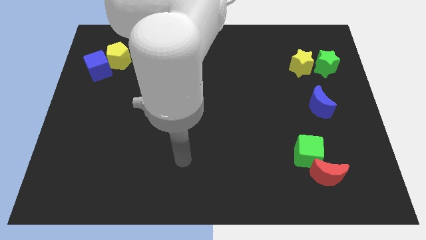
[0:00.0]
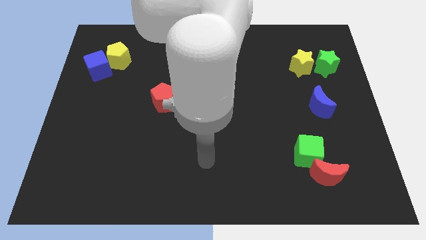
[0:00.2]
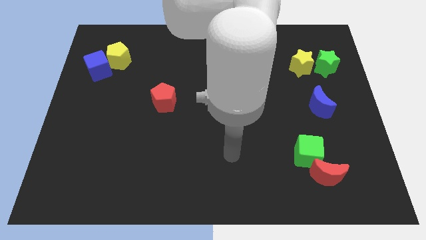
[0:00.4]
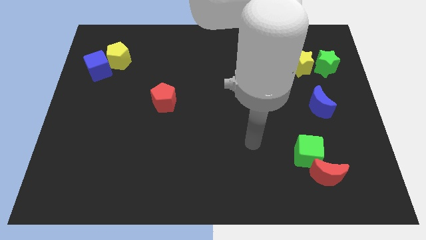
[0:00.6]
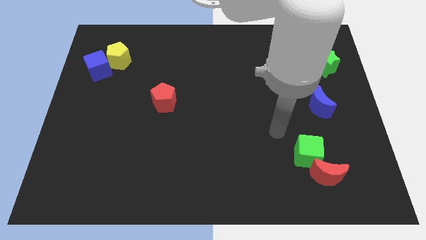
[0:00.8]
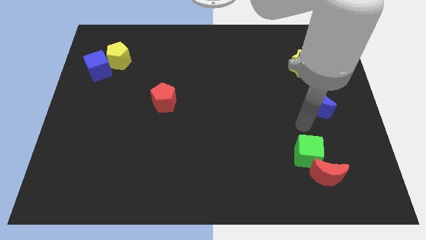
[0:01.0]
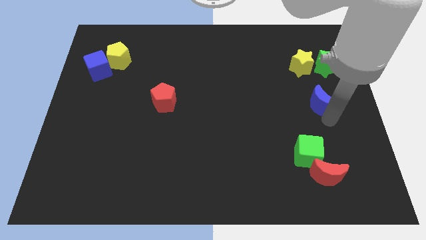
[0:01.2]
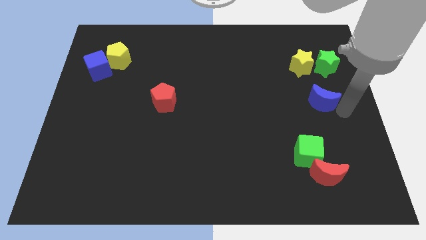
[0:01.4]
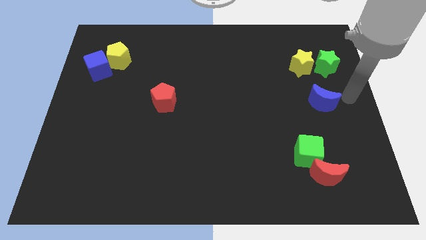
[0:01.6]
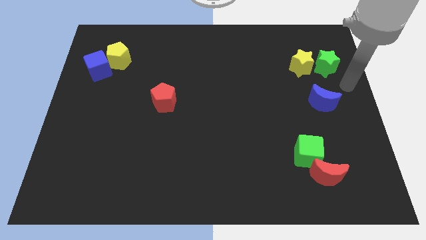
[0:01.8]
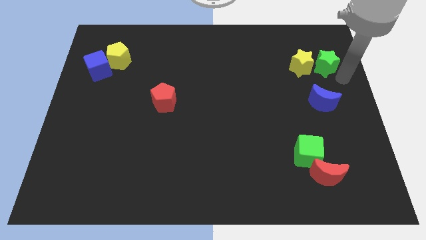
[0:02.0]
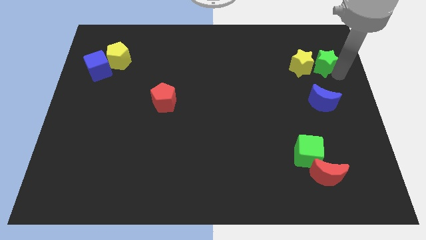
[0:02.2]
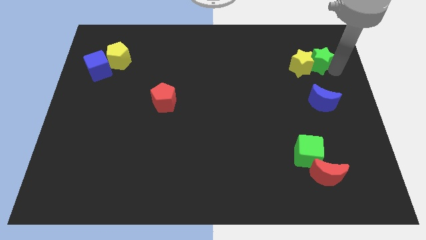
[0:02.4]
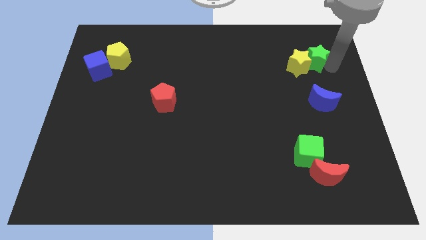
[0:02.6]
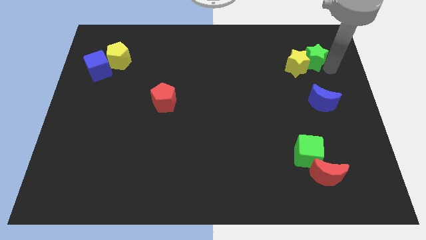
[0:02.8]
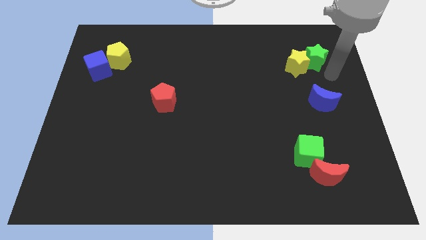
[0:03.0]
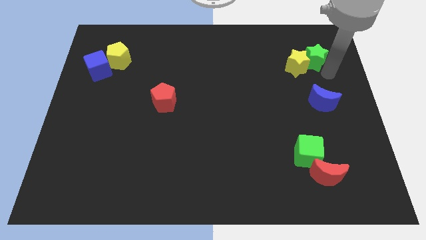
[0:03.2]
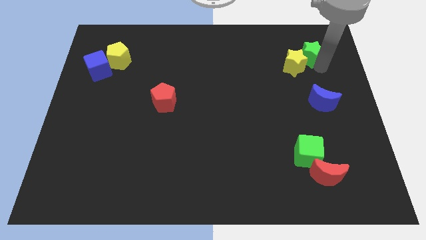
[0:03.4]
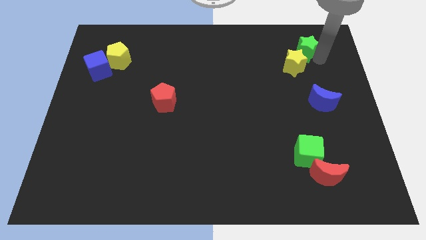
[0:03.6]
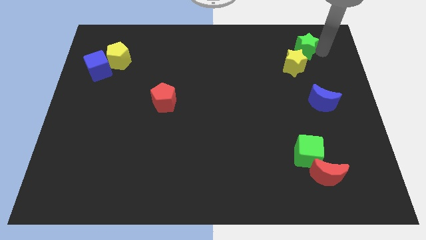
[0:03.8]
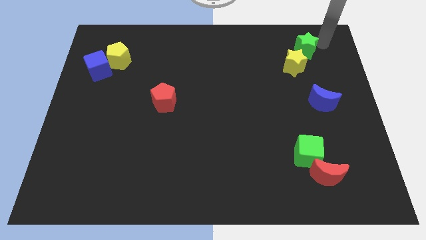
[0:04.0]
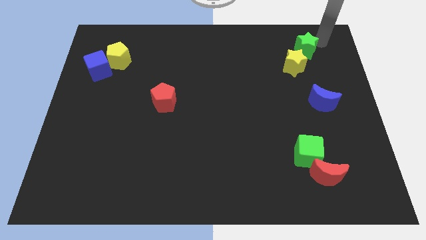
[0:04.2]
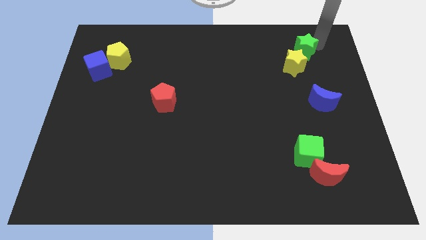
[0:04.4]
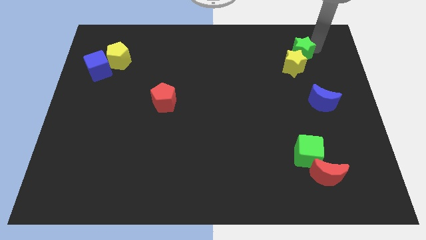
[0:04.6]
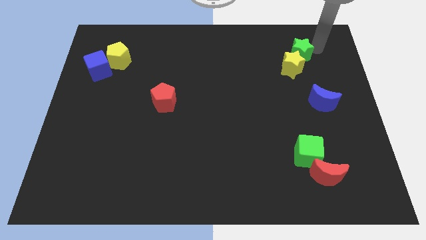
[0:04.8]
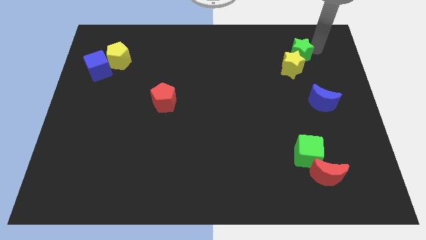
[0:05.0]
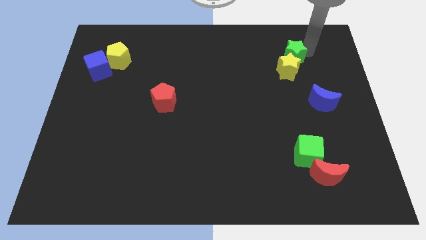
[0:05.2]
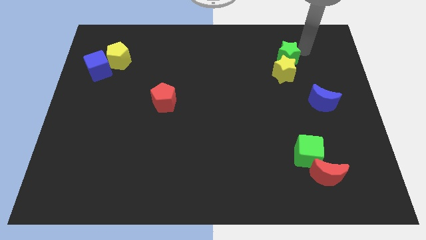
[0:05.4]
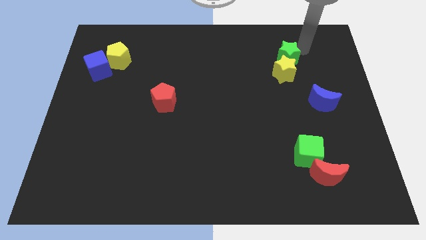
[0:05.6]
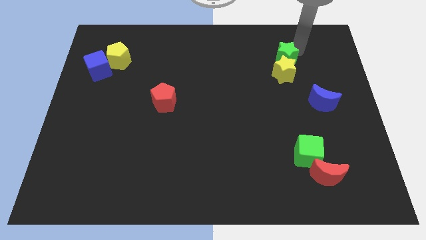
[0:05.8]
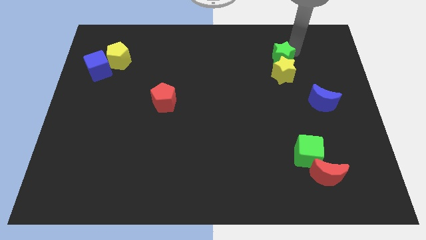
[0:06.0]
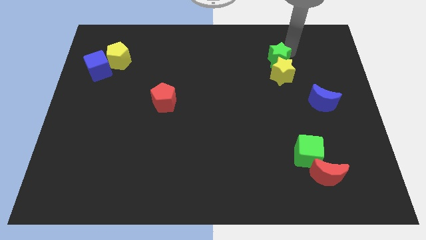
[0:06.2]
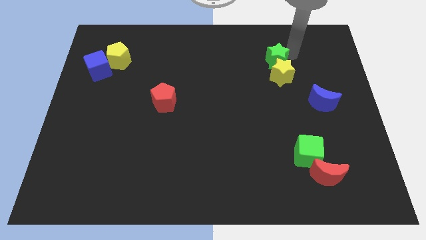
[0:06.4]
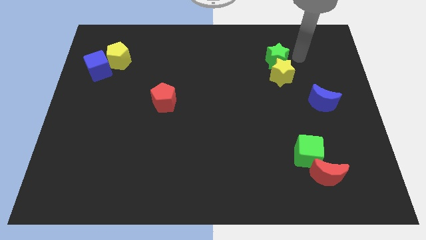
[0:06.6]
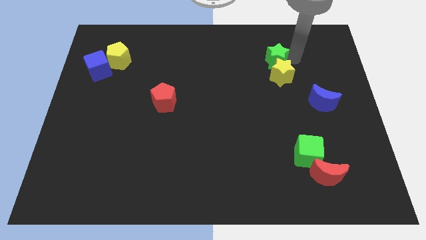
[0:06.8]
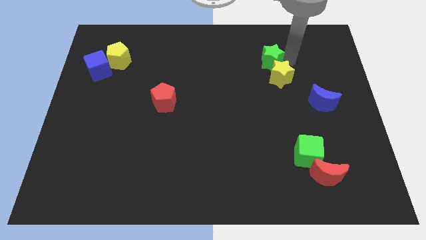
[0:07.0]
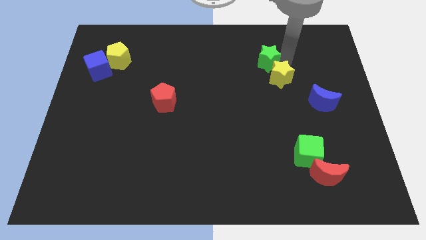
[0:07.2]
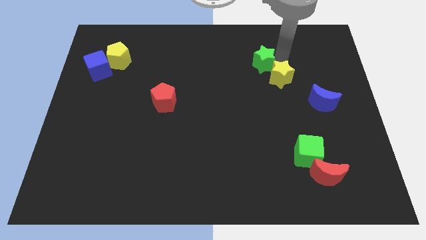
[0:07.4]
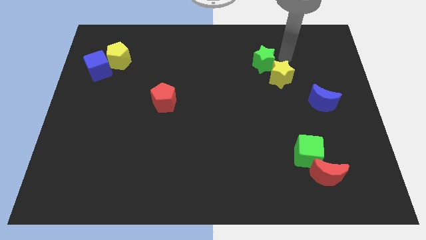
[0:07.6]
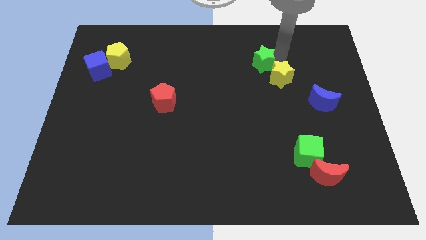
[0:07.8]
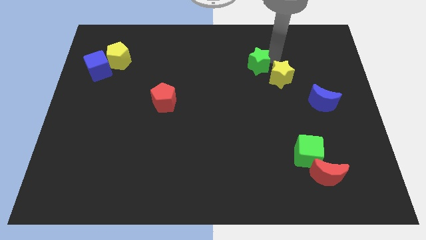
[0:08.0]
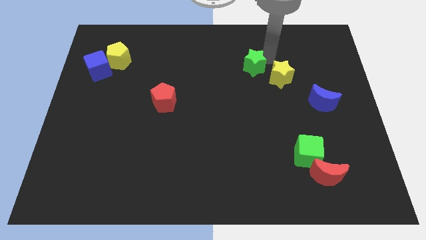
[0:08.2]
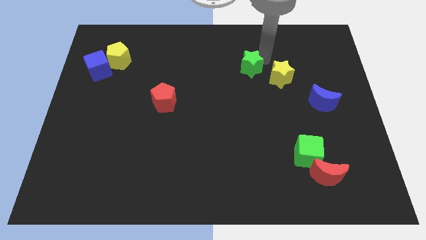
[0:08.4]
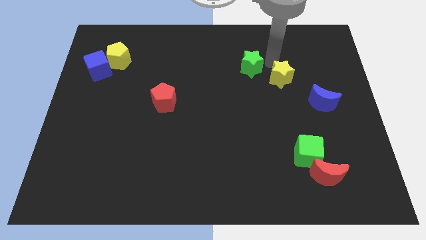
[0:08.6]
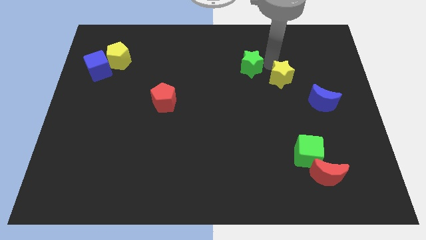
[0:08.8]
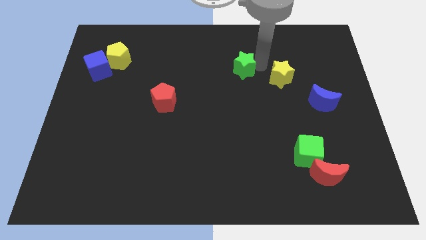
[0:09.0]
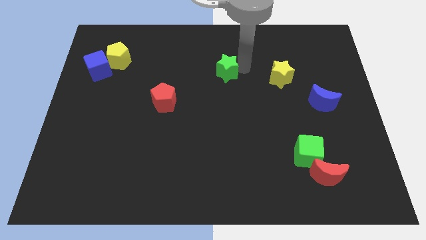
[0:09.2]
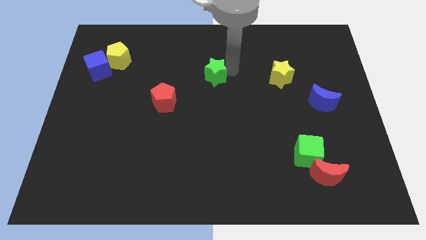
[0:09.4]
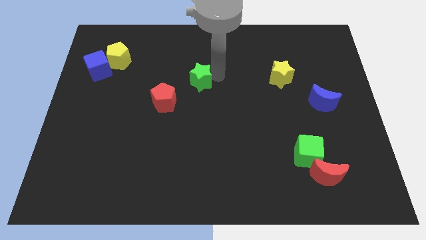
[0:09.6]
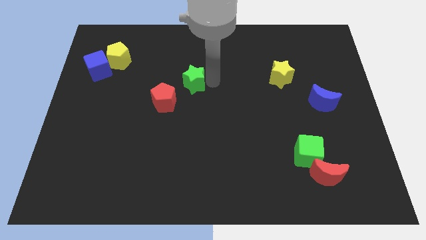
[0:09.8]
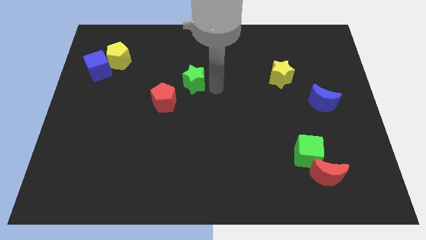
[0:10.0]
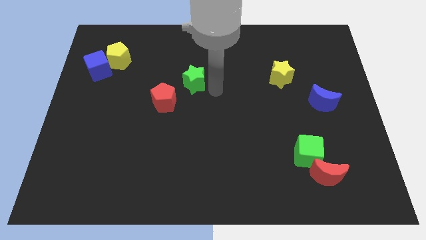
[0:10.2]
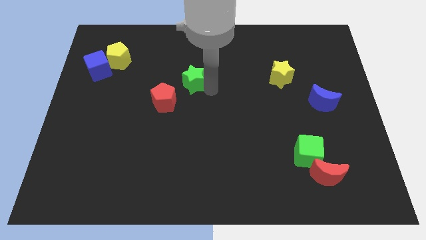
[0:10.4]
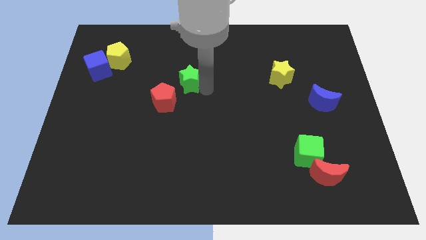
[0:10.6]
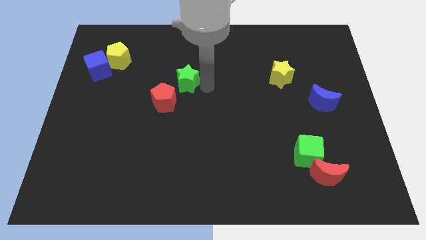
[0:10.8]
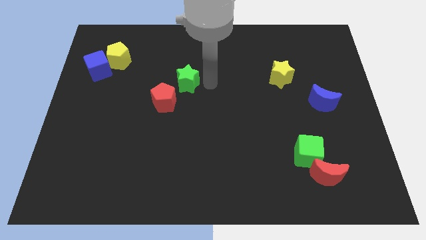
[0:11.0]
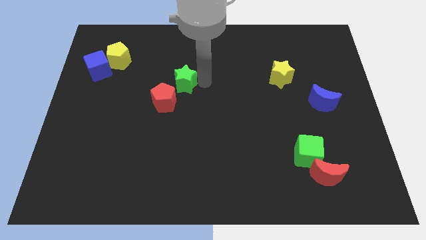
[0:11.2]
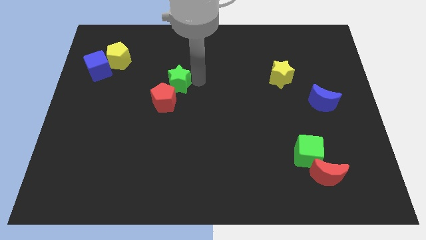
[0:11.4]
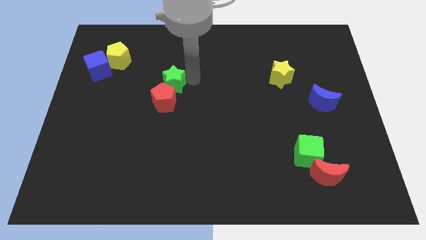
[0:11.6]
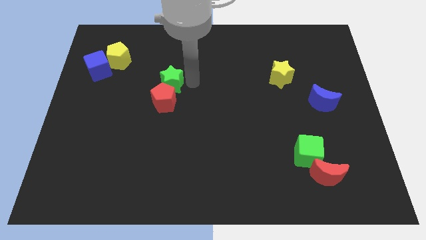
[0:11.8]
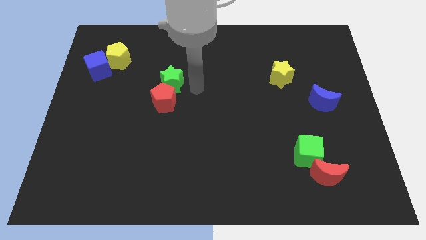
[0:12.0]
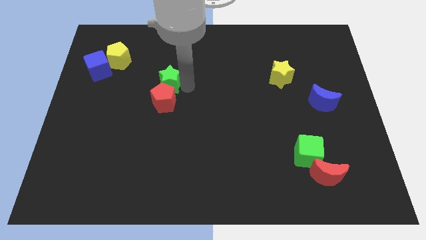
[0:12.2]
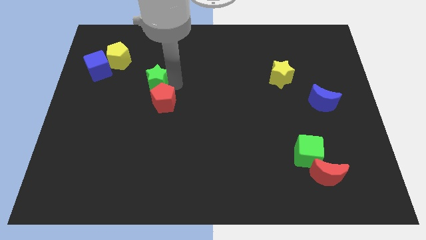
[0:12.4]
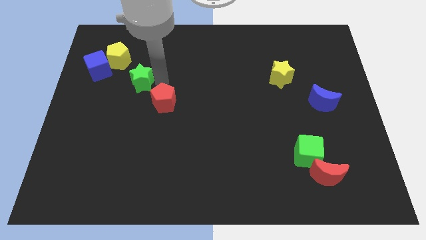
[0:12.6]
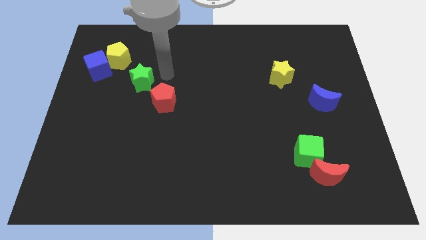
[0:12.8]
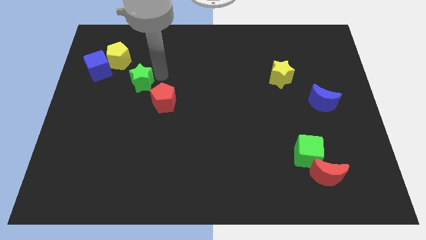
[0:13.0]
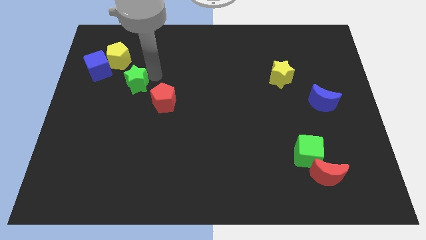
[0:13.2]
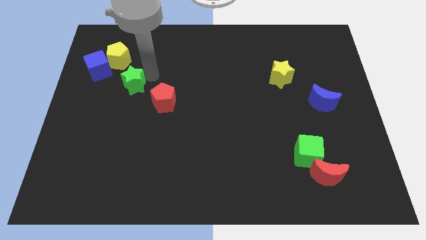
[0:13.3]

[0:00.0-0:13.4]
push the green star to the bottom of the yellow pentagon

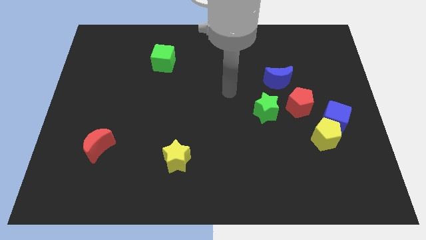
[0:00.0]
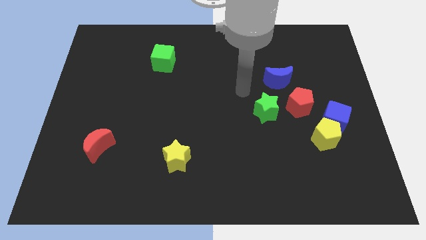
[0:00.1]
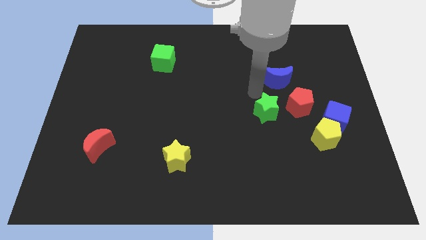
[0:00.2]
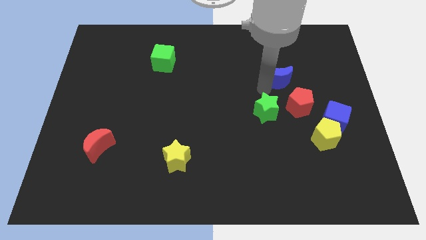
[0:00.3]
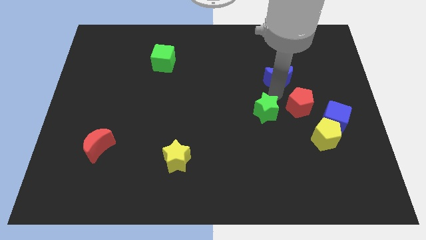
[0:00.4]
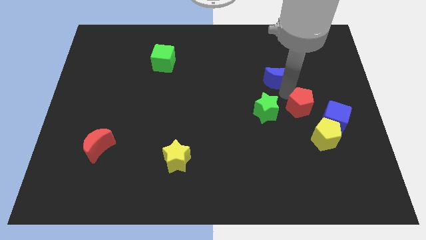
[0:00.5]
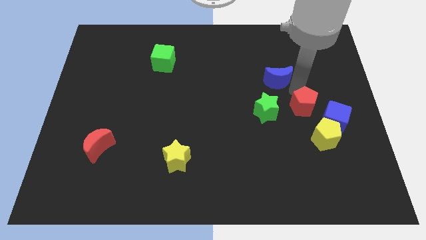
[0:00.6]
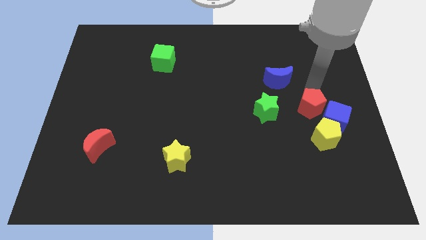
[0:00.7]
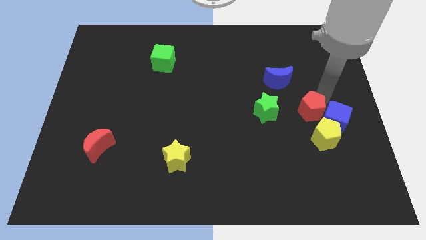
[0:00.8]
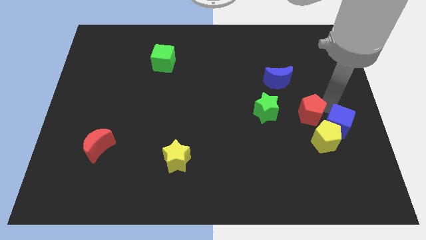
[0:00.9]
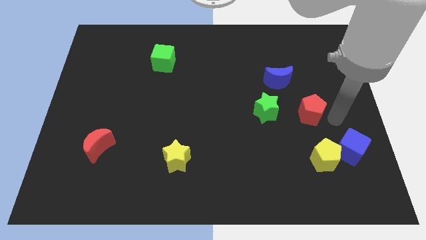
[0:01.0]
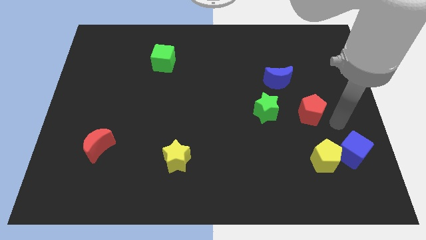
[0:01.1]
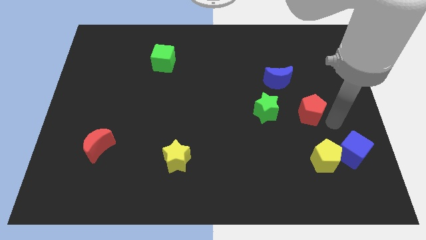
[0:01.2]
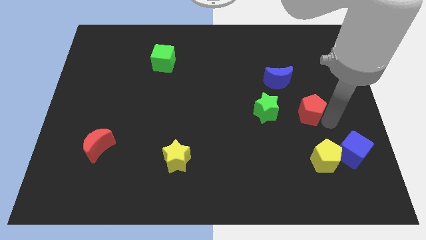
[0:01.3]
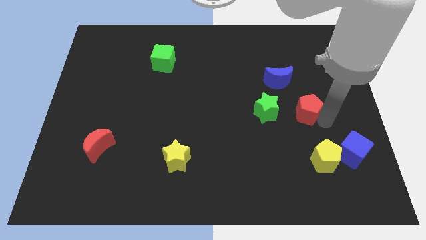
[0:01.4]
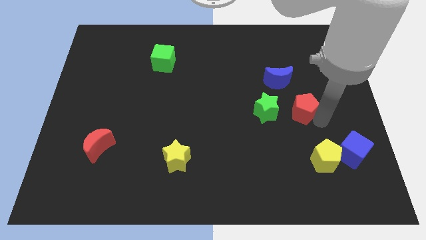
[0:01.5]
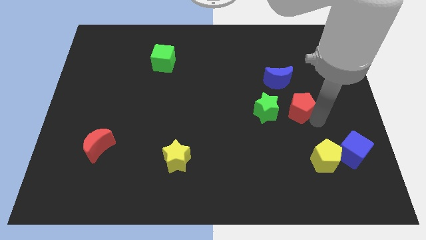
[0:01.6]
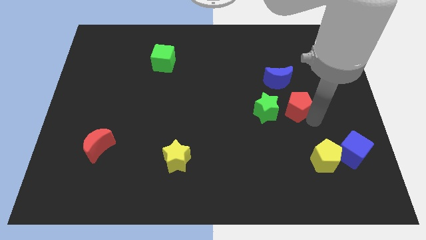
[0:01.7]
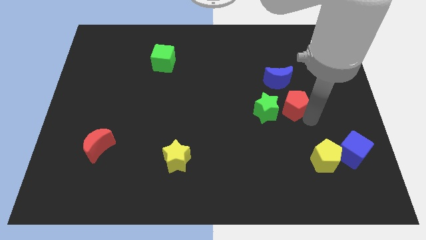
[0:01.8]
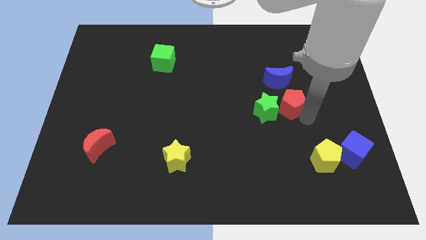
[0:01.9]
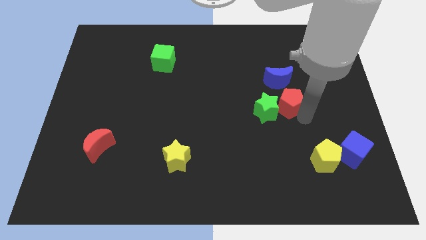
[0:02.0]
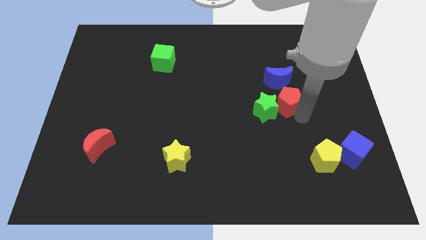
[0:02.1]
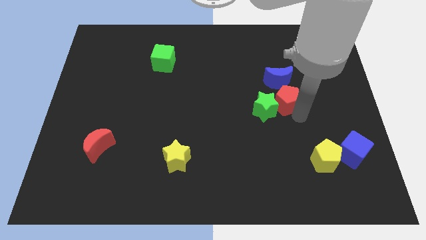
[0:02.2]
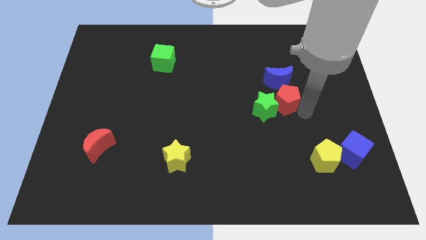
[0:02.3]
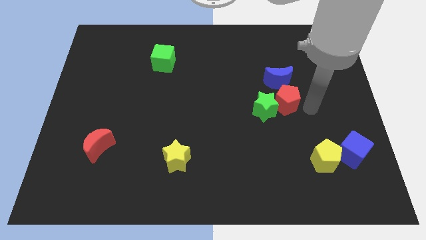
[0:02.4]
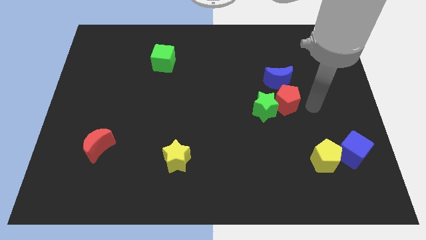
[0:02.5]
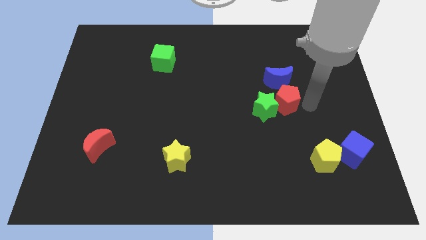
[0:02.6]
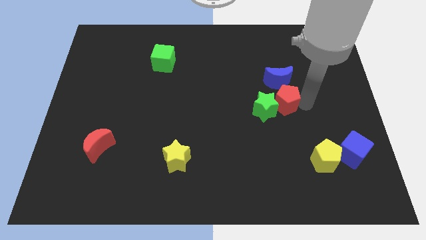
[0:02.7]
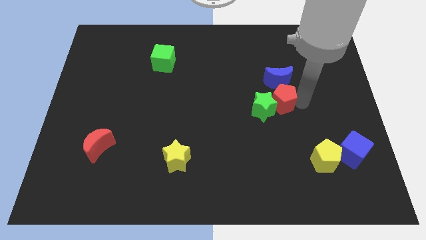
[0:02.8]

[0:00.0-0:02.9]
move the red pentagon to the bottom left side of the blue moon
